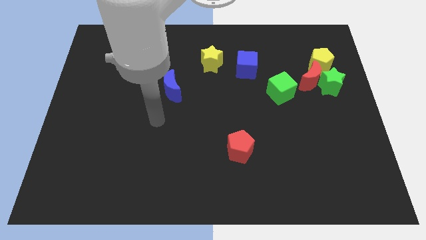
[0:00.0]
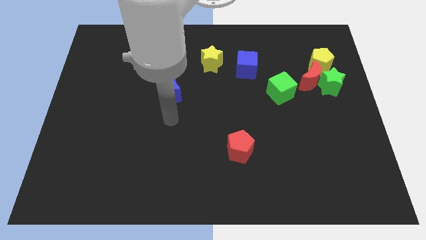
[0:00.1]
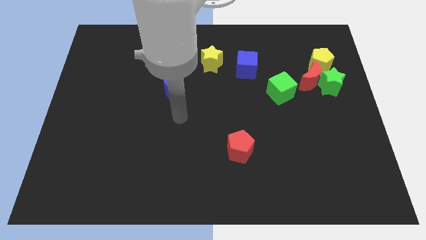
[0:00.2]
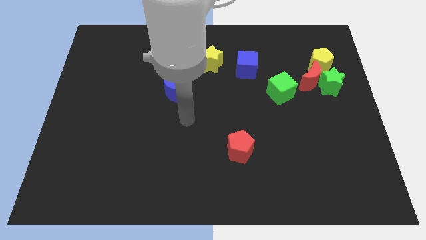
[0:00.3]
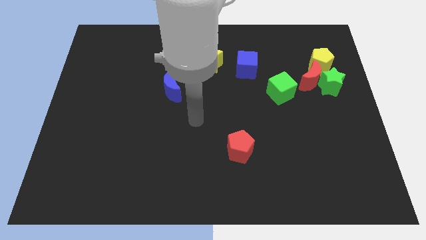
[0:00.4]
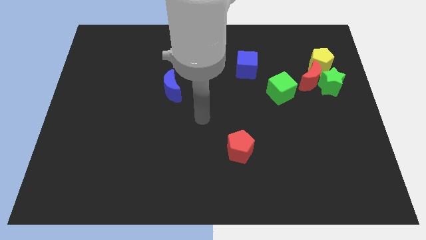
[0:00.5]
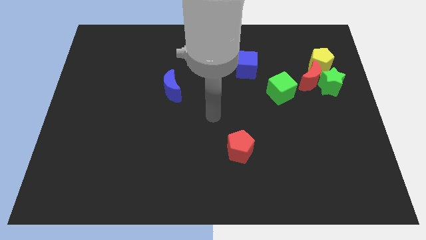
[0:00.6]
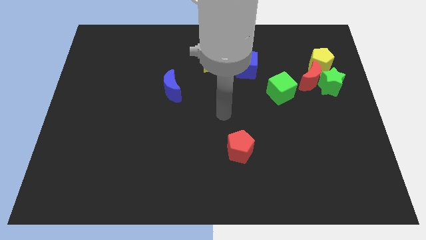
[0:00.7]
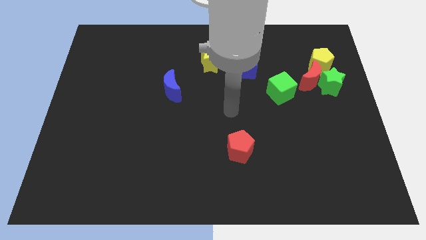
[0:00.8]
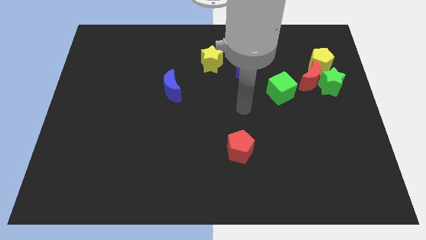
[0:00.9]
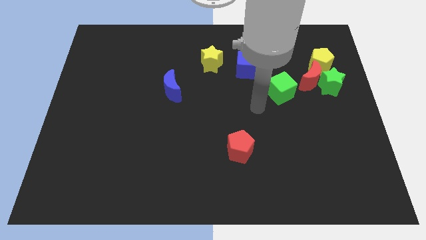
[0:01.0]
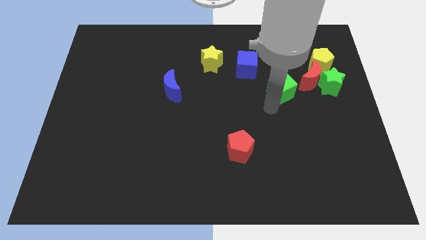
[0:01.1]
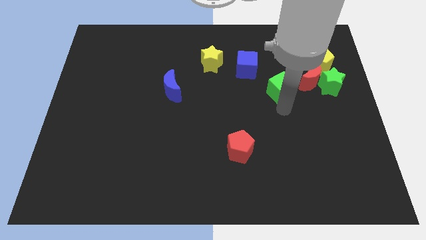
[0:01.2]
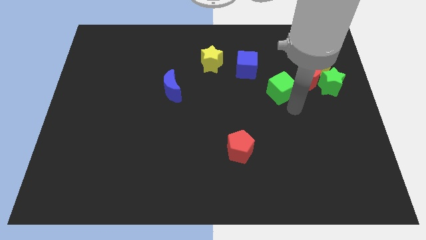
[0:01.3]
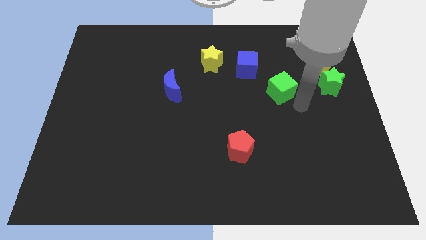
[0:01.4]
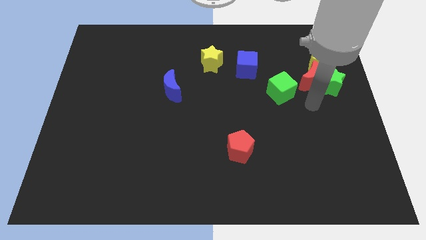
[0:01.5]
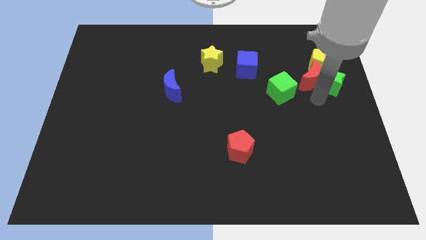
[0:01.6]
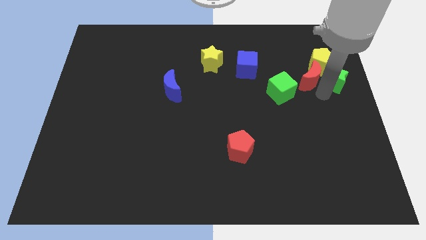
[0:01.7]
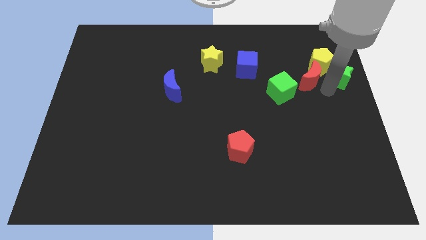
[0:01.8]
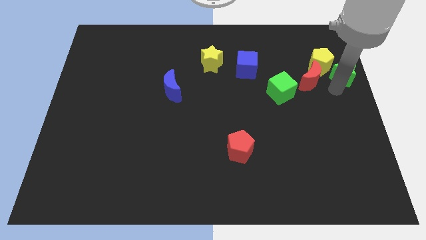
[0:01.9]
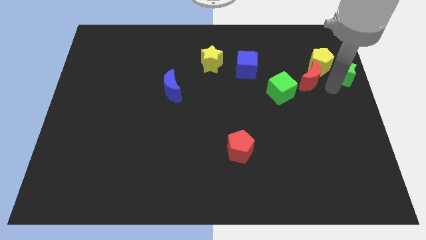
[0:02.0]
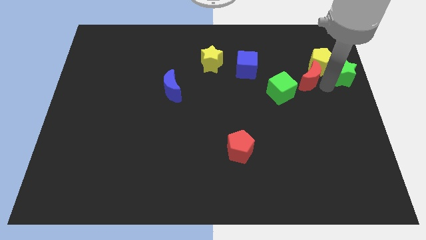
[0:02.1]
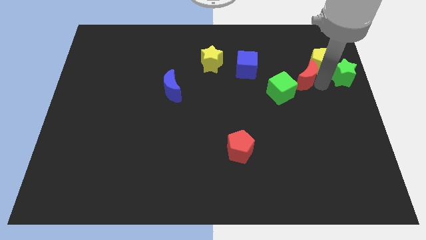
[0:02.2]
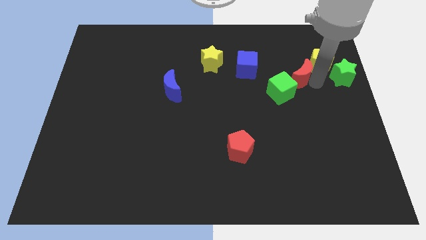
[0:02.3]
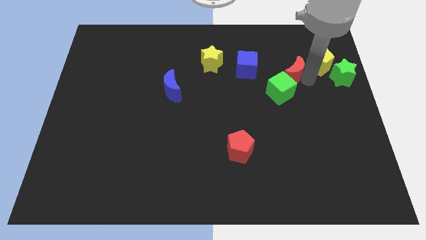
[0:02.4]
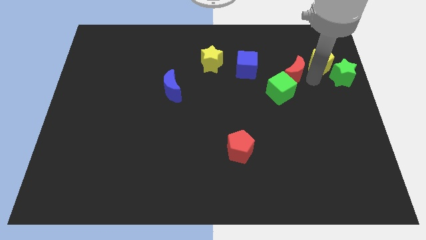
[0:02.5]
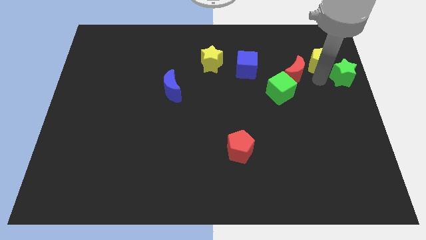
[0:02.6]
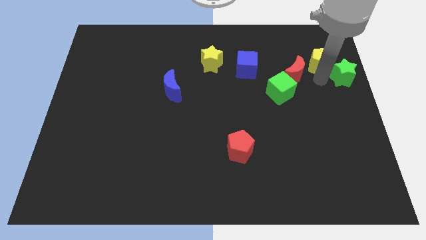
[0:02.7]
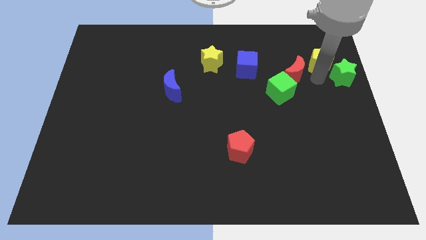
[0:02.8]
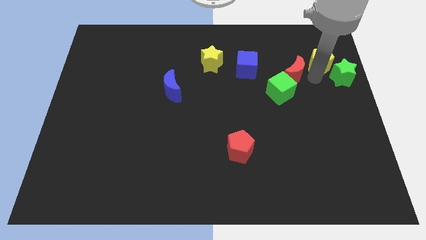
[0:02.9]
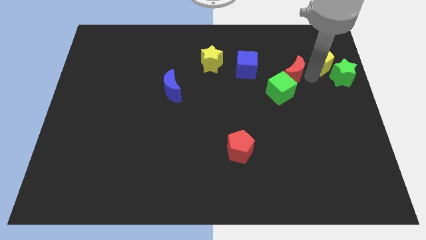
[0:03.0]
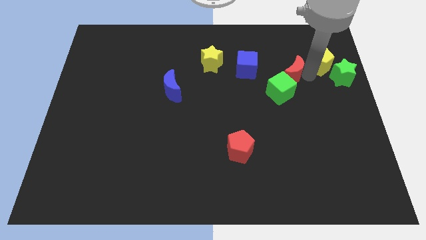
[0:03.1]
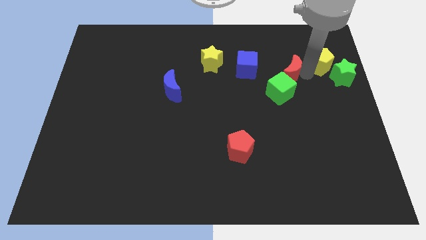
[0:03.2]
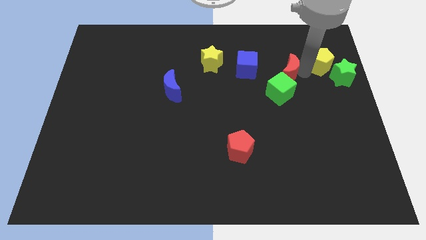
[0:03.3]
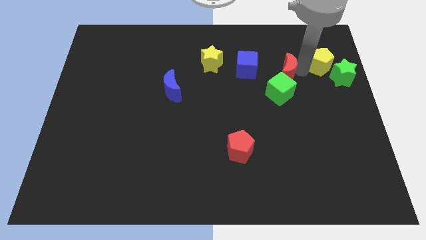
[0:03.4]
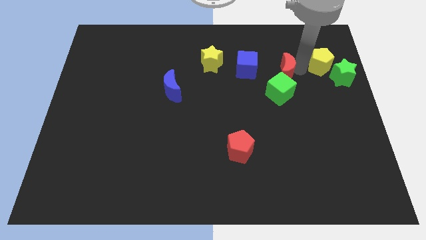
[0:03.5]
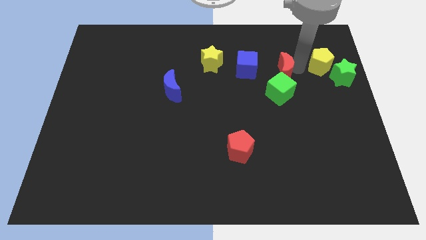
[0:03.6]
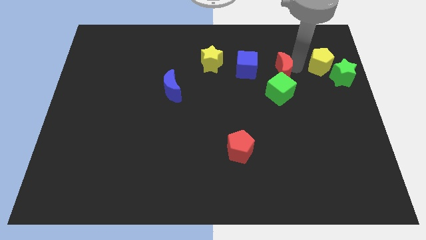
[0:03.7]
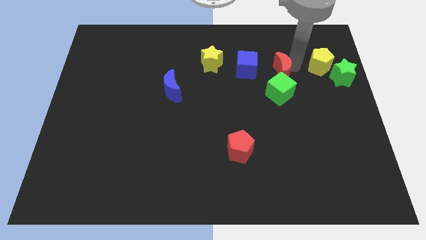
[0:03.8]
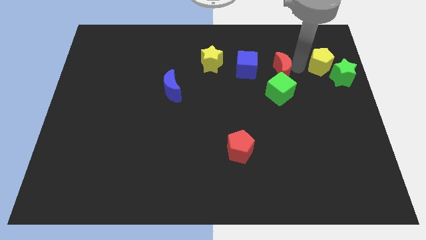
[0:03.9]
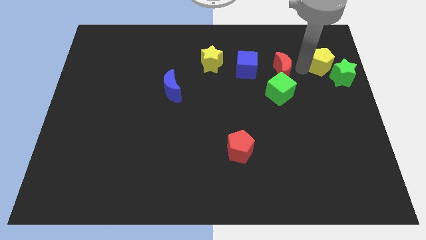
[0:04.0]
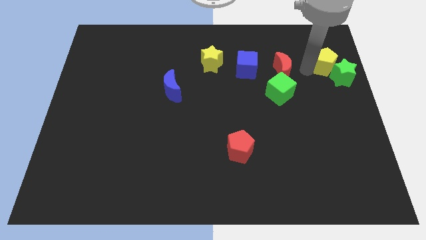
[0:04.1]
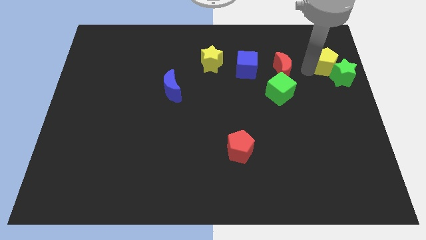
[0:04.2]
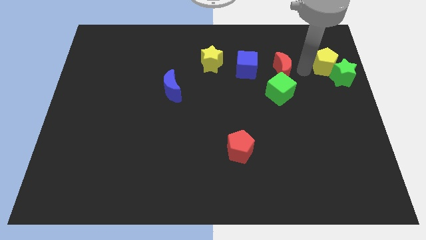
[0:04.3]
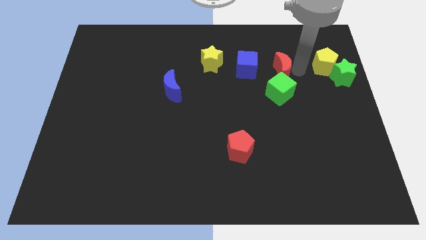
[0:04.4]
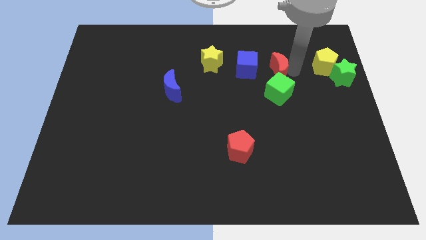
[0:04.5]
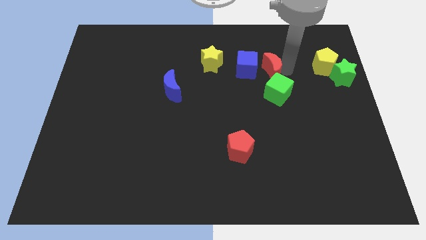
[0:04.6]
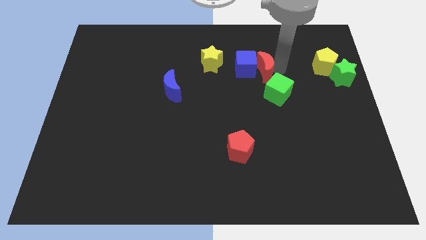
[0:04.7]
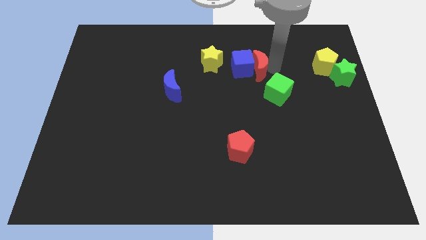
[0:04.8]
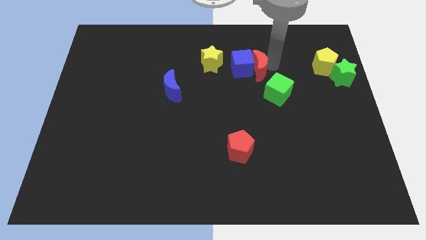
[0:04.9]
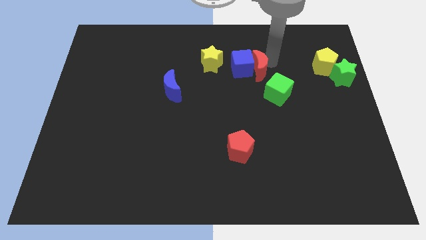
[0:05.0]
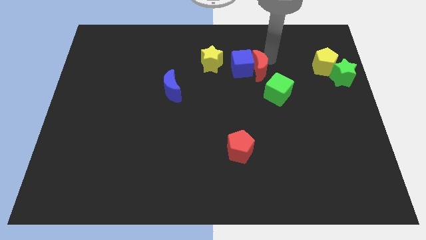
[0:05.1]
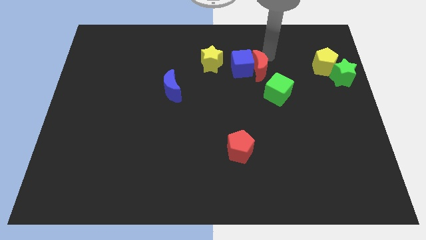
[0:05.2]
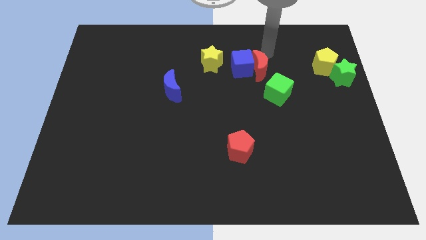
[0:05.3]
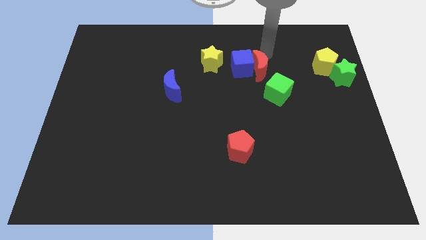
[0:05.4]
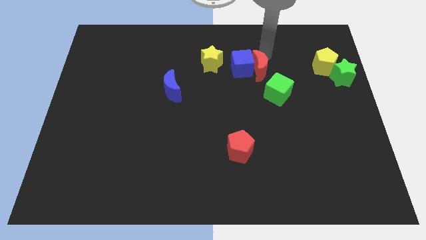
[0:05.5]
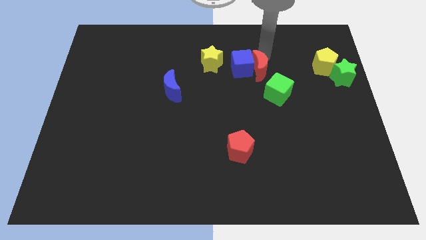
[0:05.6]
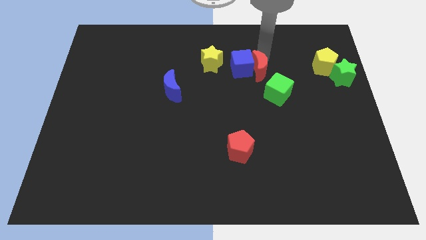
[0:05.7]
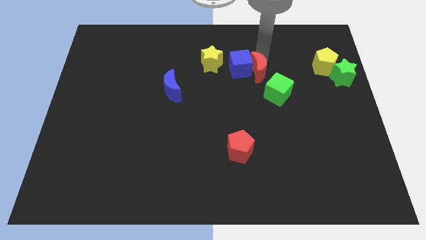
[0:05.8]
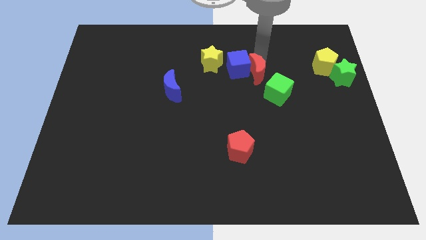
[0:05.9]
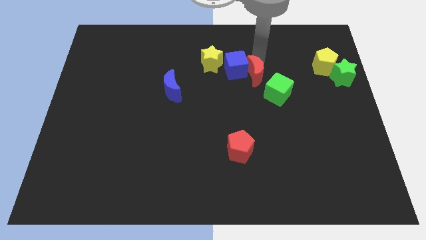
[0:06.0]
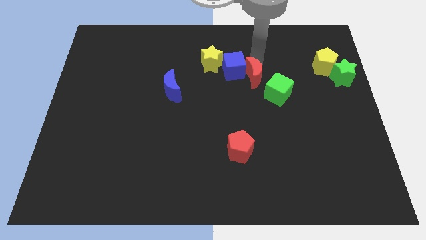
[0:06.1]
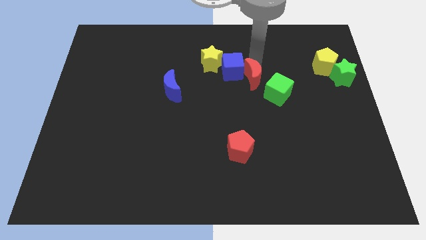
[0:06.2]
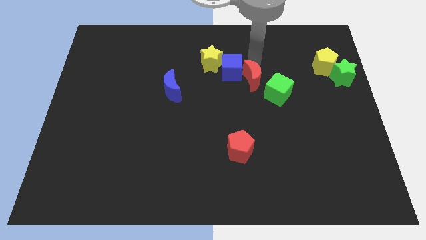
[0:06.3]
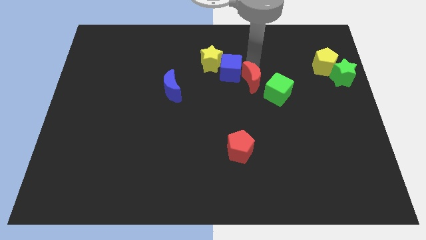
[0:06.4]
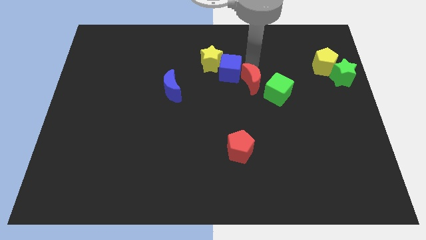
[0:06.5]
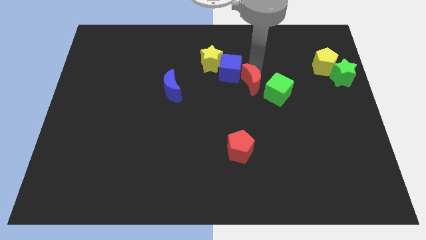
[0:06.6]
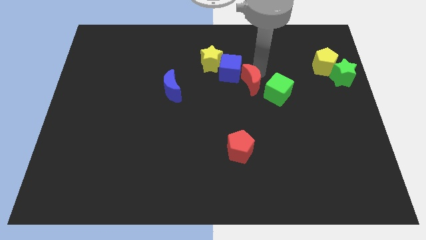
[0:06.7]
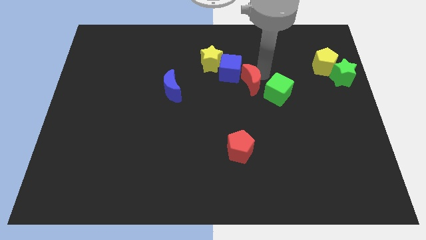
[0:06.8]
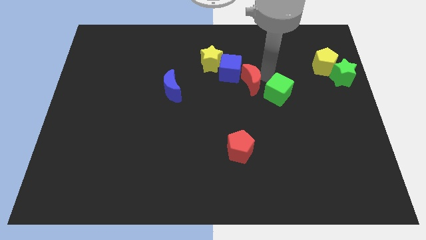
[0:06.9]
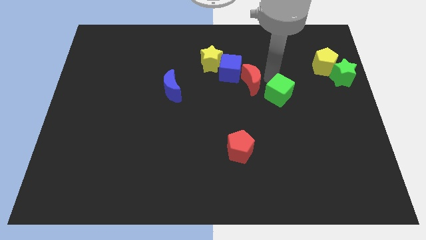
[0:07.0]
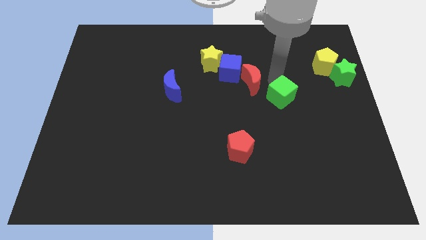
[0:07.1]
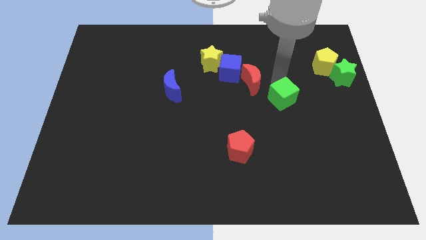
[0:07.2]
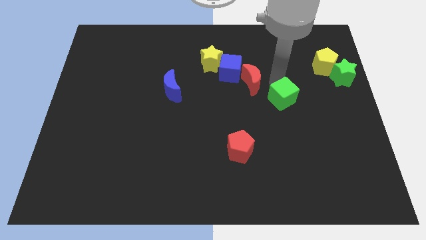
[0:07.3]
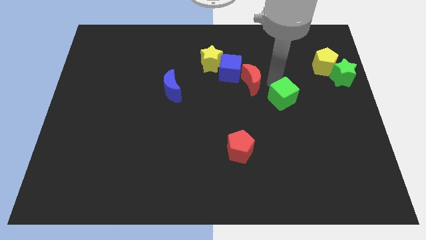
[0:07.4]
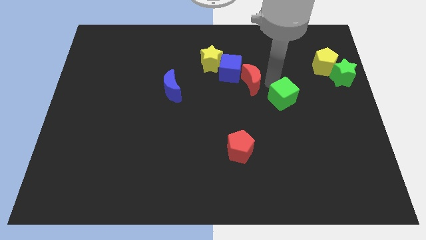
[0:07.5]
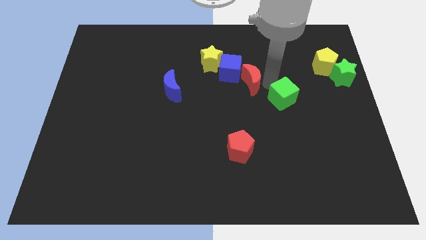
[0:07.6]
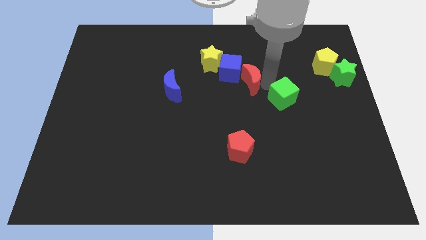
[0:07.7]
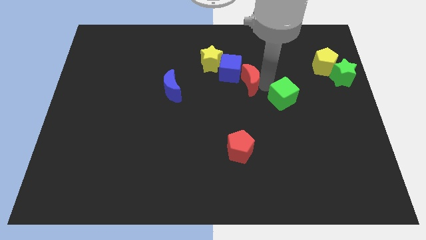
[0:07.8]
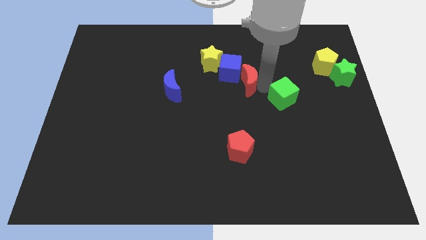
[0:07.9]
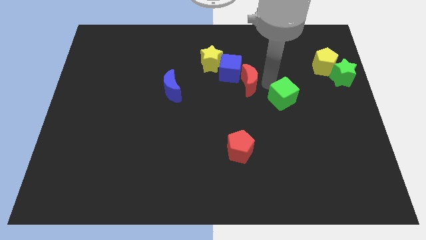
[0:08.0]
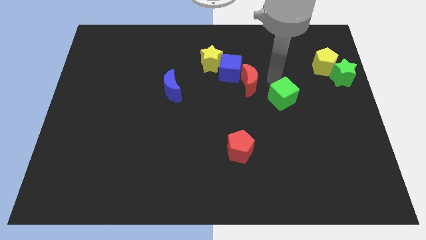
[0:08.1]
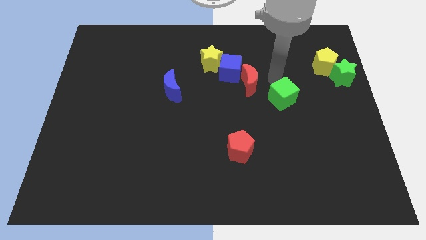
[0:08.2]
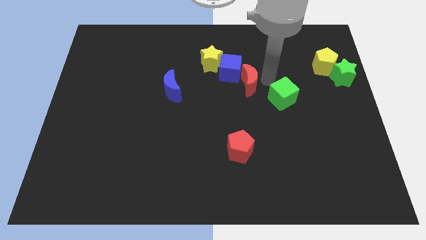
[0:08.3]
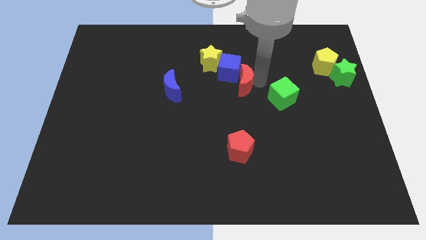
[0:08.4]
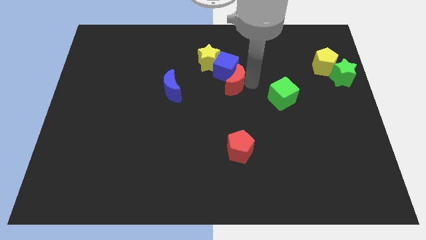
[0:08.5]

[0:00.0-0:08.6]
slide the red moon just right of the blue moon
